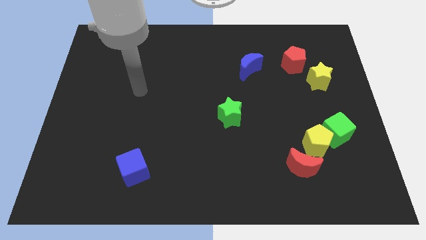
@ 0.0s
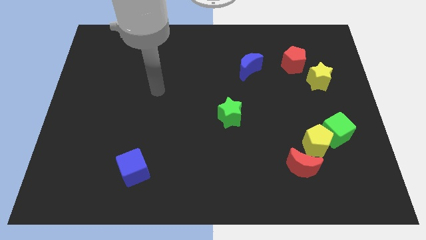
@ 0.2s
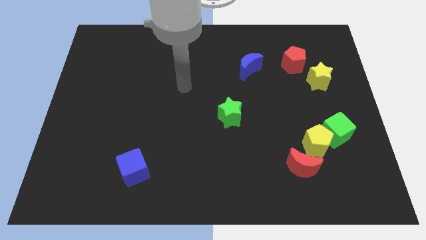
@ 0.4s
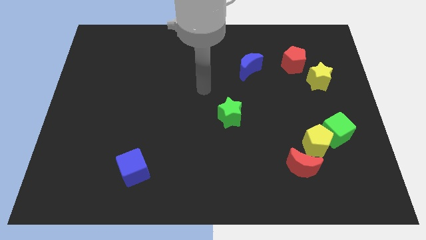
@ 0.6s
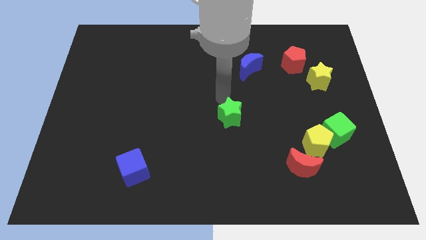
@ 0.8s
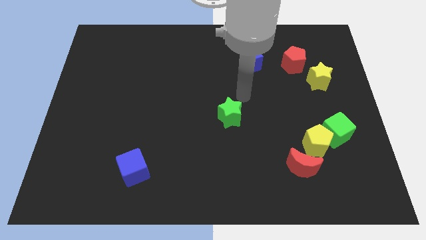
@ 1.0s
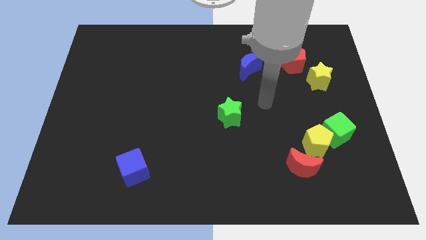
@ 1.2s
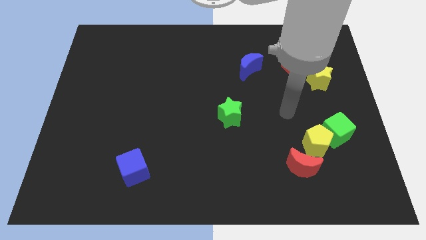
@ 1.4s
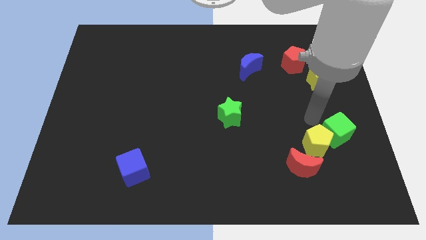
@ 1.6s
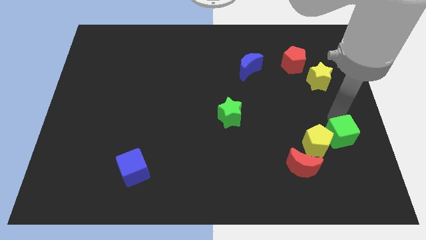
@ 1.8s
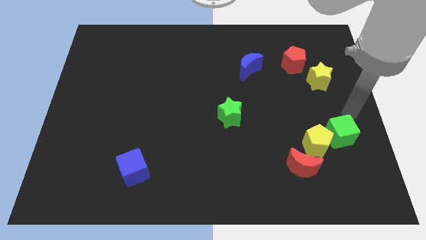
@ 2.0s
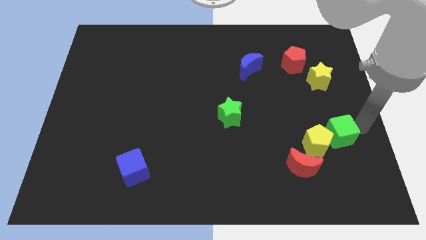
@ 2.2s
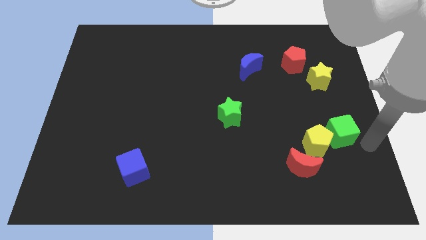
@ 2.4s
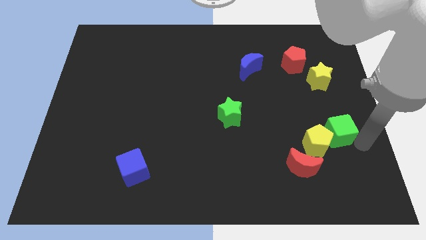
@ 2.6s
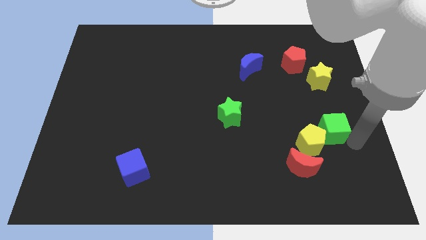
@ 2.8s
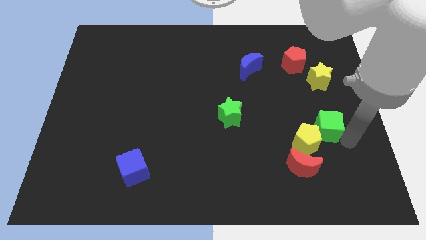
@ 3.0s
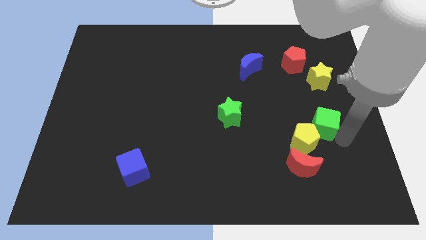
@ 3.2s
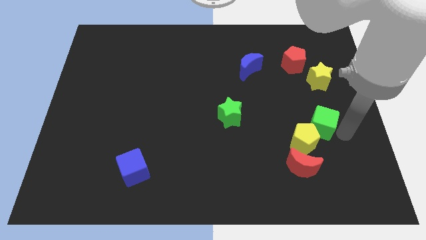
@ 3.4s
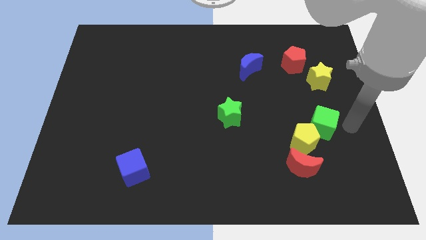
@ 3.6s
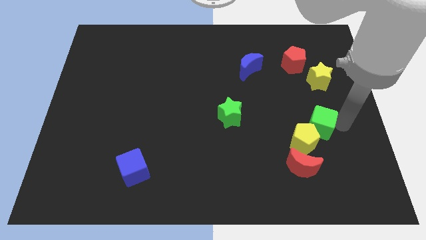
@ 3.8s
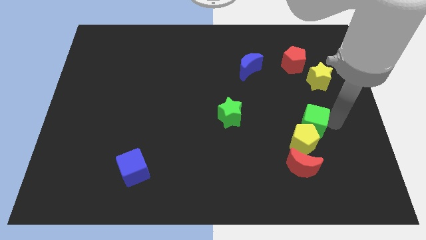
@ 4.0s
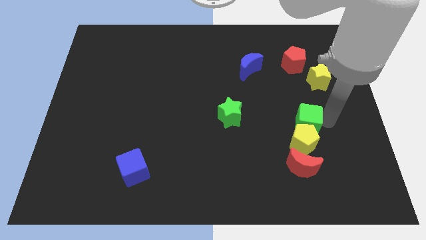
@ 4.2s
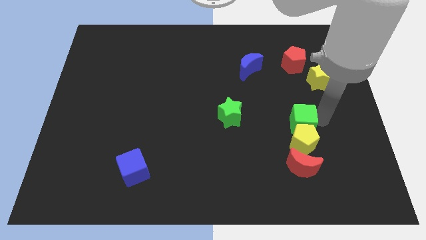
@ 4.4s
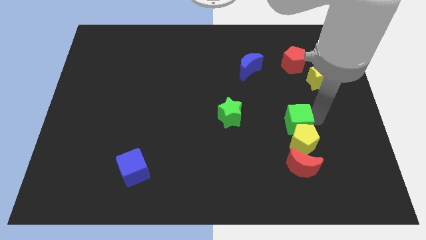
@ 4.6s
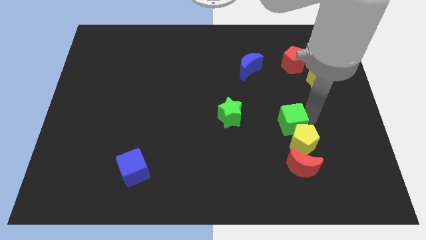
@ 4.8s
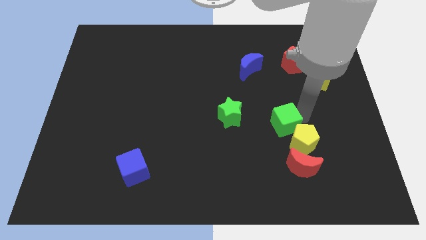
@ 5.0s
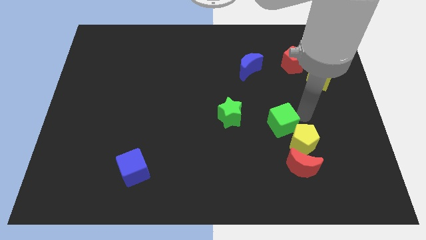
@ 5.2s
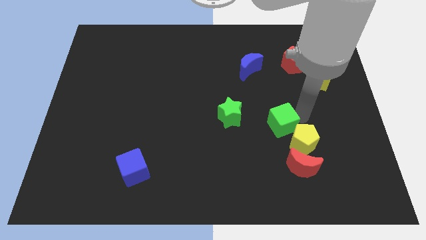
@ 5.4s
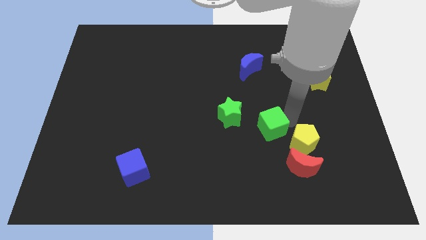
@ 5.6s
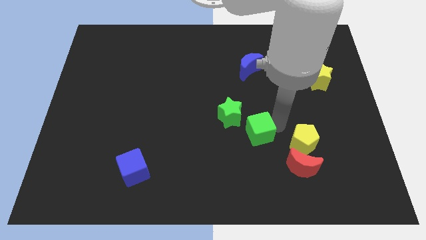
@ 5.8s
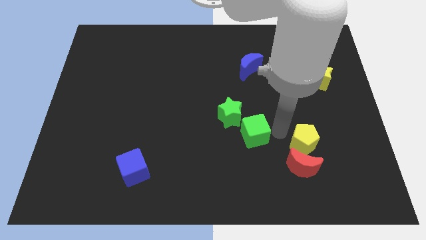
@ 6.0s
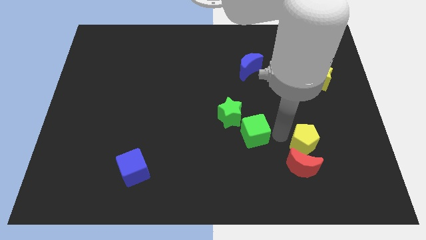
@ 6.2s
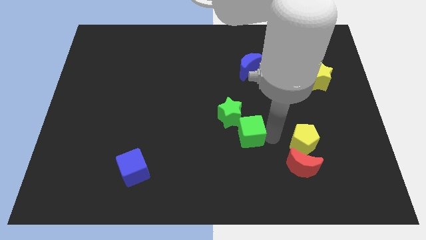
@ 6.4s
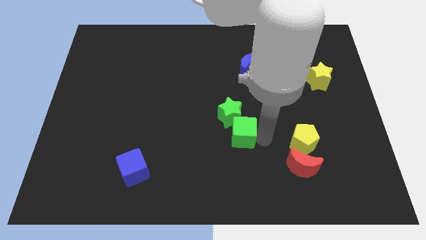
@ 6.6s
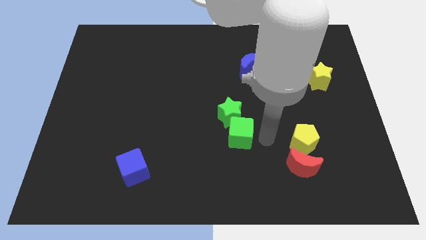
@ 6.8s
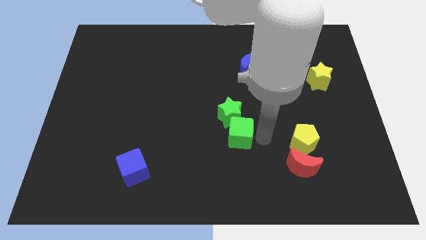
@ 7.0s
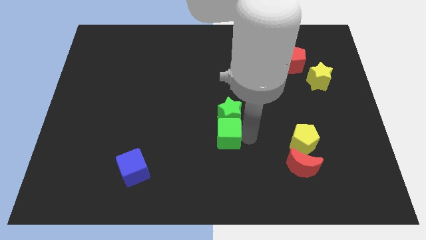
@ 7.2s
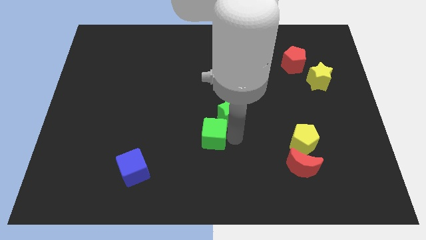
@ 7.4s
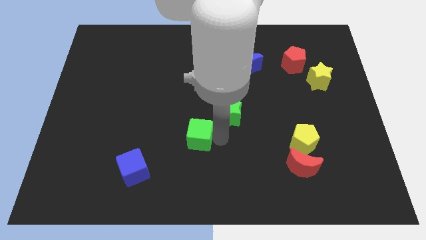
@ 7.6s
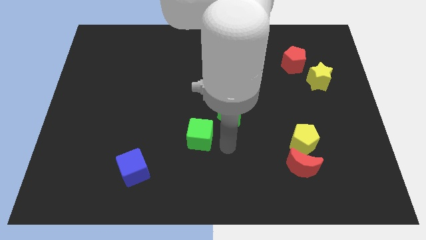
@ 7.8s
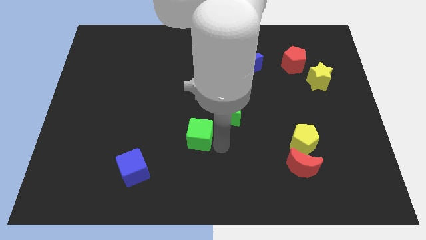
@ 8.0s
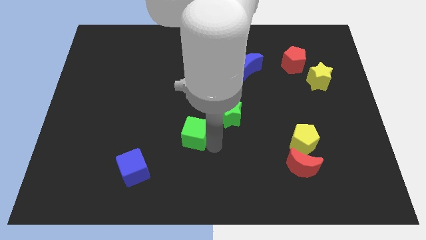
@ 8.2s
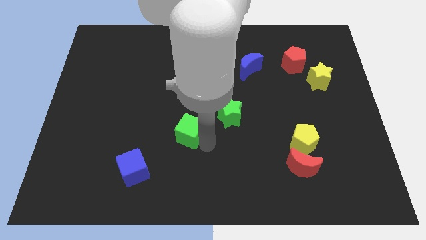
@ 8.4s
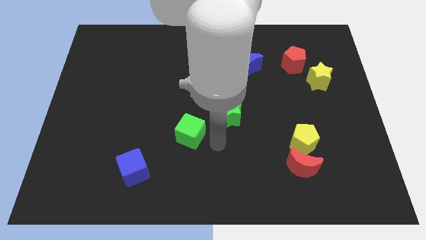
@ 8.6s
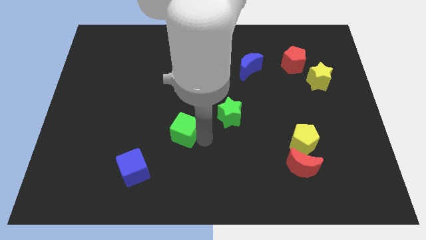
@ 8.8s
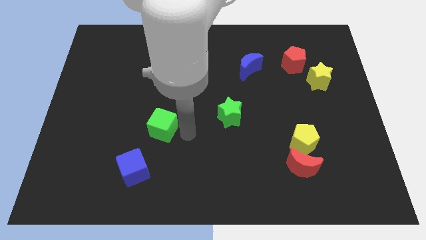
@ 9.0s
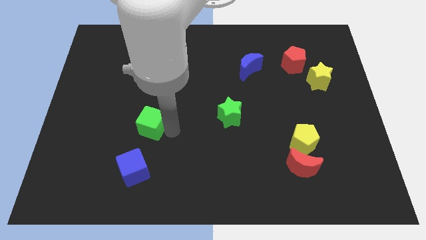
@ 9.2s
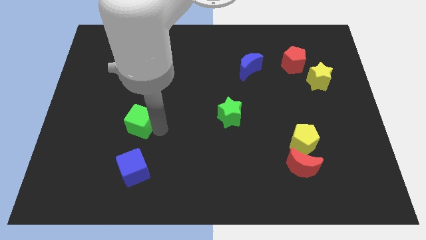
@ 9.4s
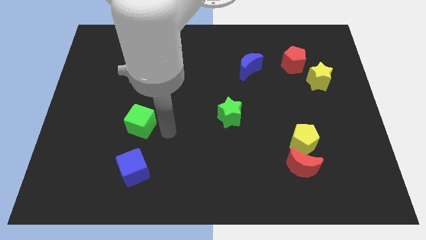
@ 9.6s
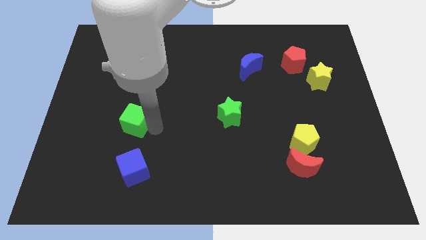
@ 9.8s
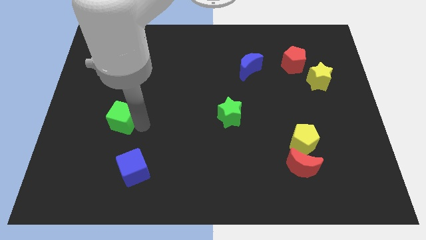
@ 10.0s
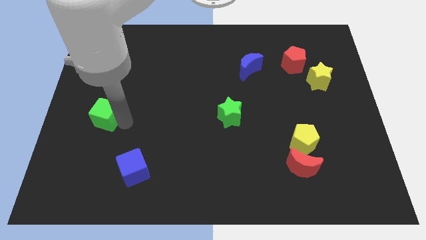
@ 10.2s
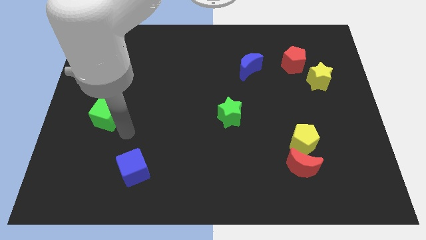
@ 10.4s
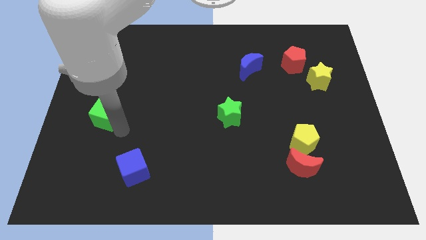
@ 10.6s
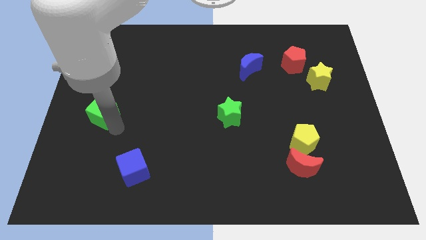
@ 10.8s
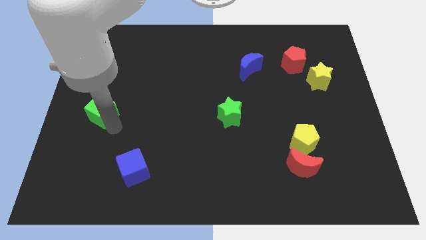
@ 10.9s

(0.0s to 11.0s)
slide the green cube to the center left

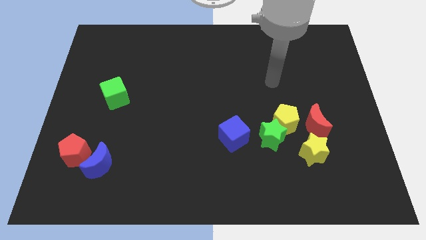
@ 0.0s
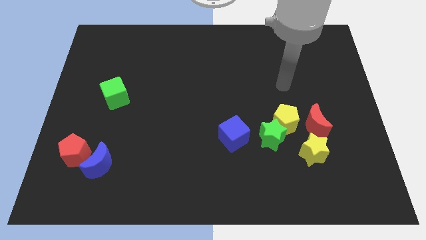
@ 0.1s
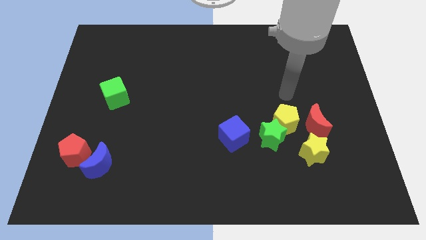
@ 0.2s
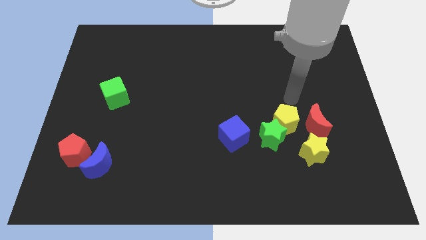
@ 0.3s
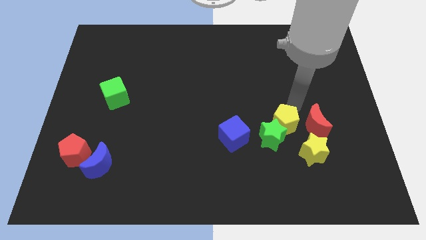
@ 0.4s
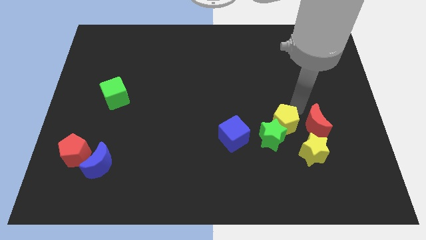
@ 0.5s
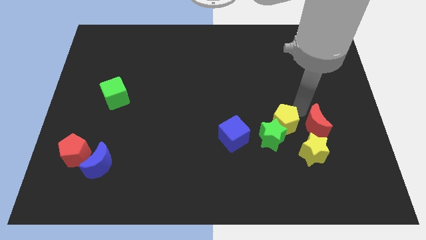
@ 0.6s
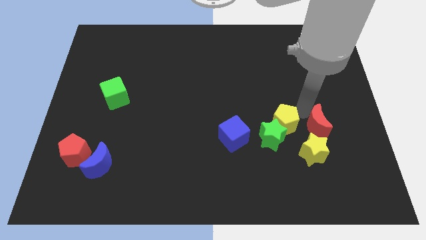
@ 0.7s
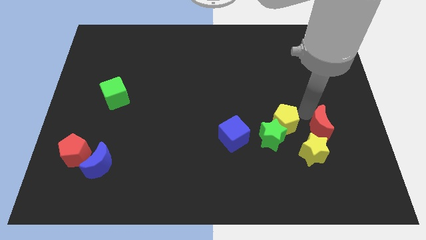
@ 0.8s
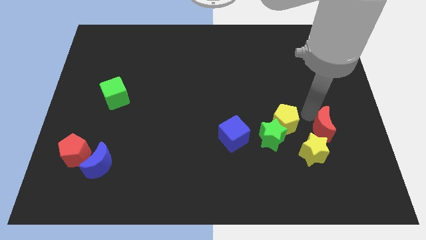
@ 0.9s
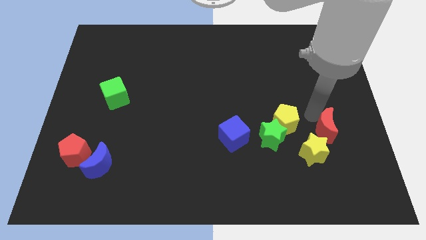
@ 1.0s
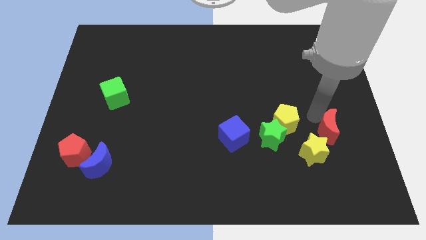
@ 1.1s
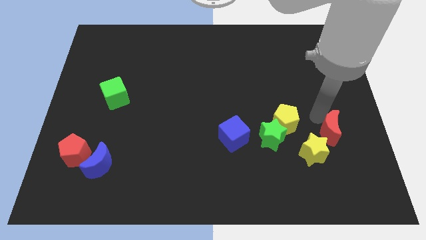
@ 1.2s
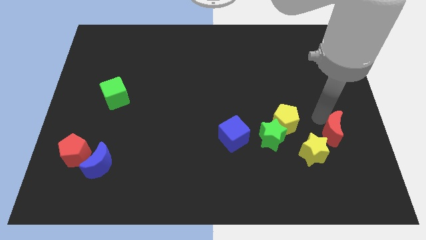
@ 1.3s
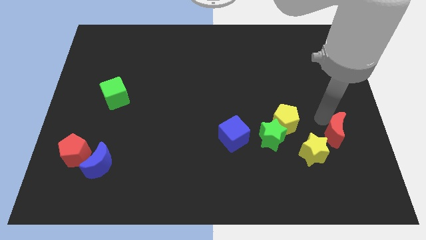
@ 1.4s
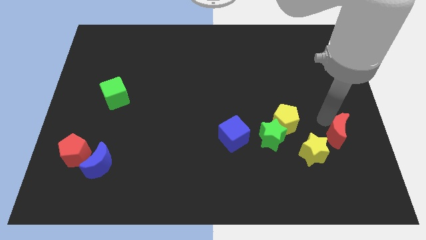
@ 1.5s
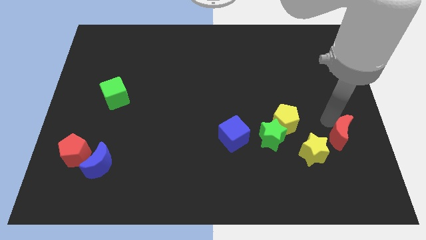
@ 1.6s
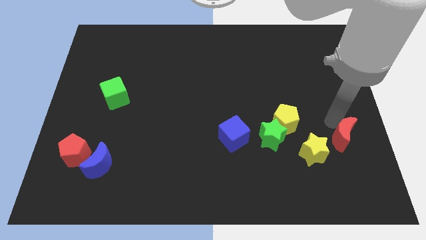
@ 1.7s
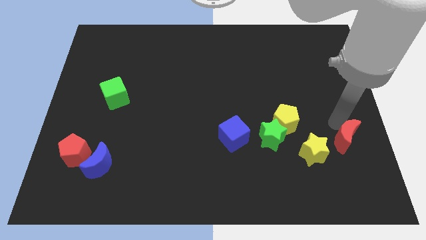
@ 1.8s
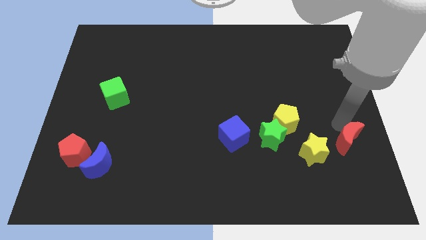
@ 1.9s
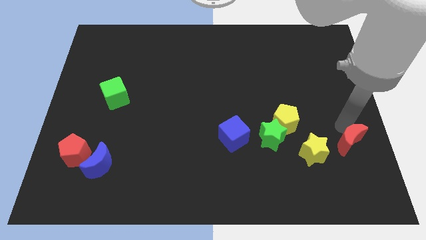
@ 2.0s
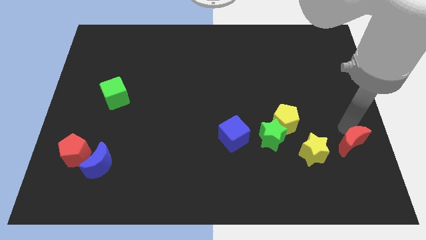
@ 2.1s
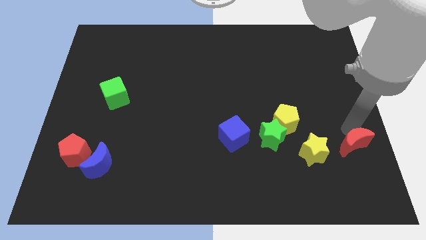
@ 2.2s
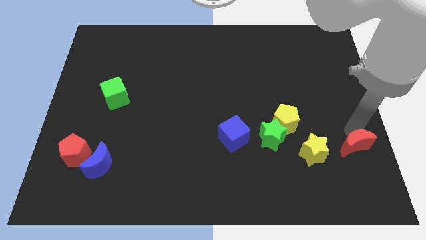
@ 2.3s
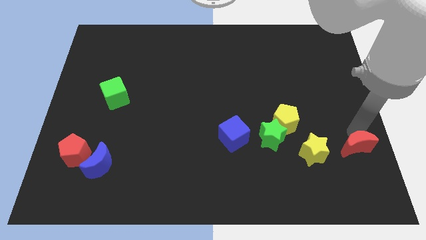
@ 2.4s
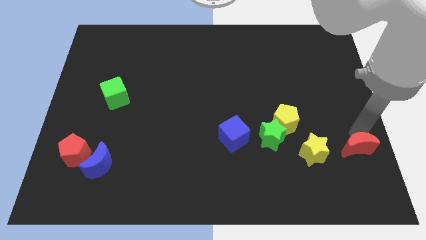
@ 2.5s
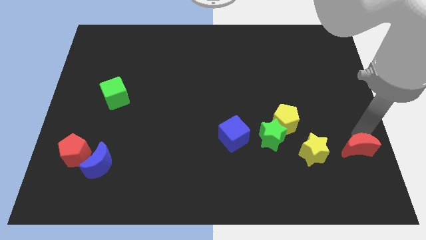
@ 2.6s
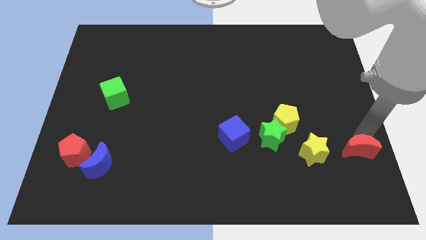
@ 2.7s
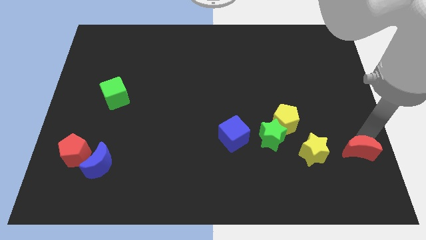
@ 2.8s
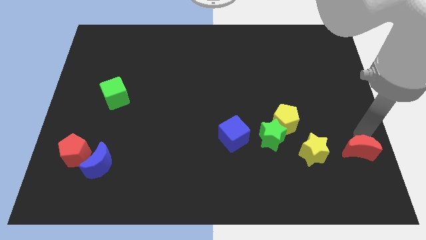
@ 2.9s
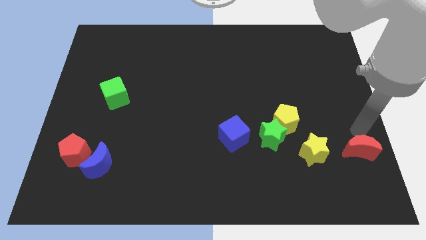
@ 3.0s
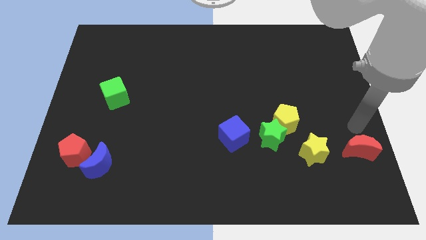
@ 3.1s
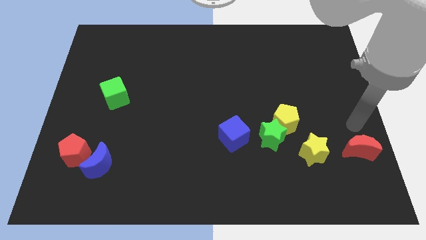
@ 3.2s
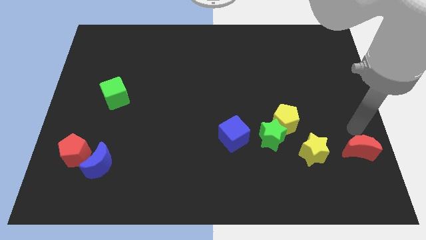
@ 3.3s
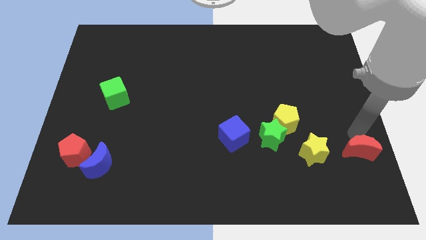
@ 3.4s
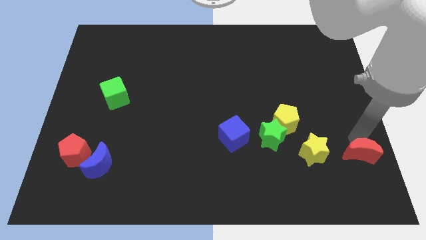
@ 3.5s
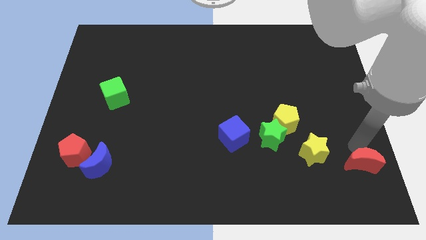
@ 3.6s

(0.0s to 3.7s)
push the red moon to the bottom right corner
